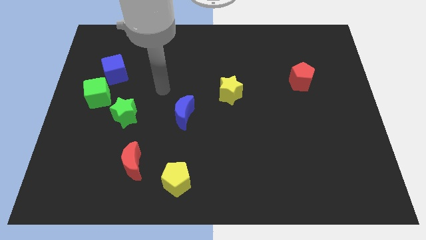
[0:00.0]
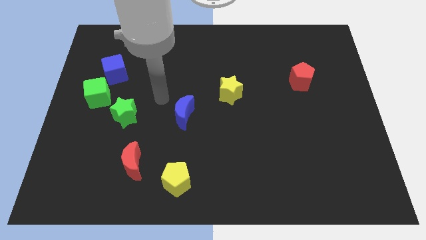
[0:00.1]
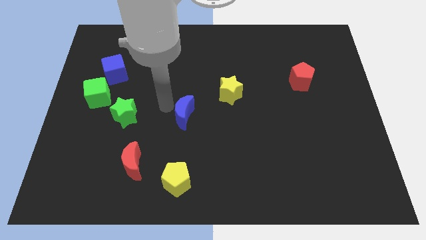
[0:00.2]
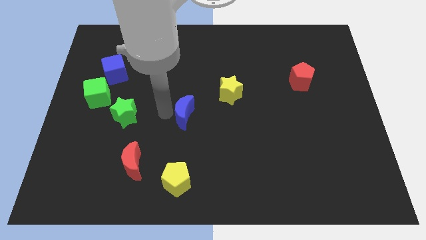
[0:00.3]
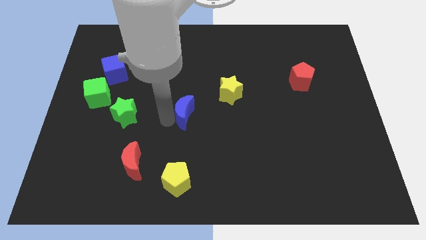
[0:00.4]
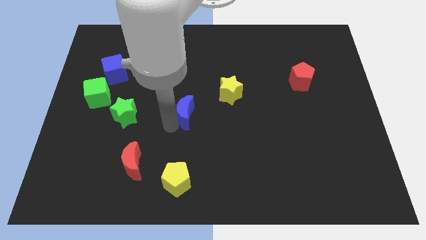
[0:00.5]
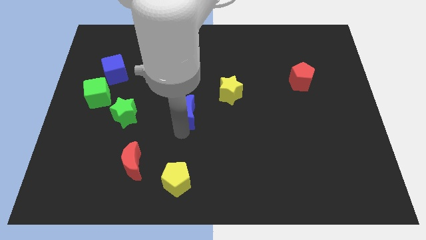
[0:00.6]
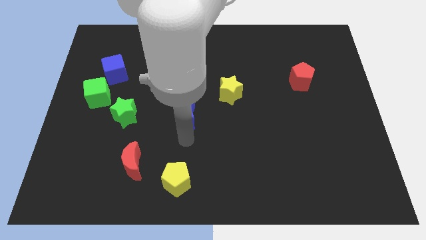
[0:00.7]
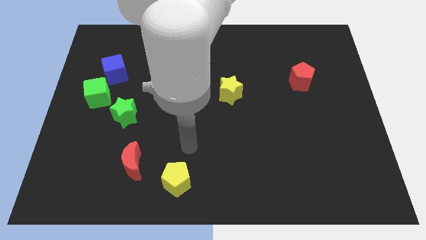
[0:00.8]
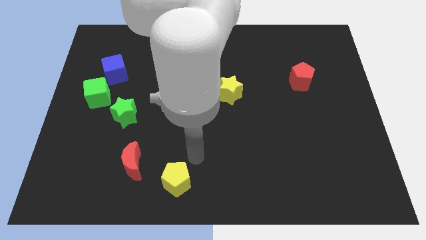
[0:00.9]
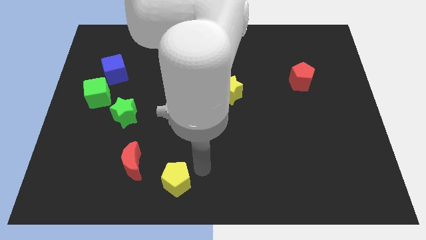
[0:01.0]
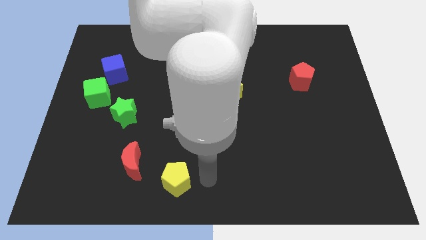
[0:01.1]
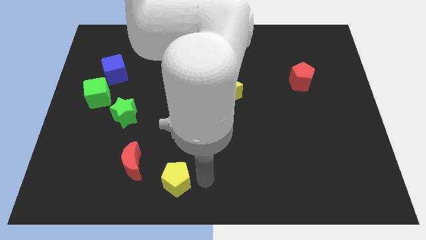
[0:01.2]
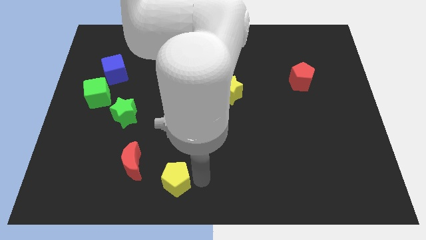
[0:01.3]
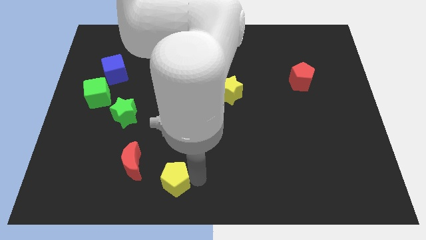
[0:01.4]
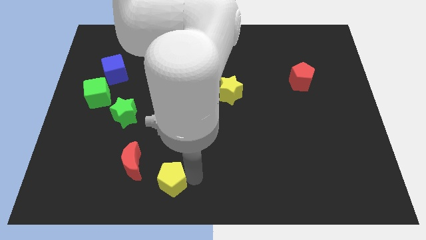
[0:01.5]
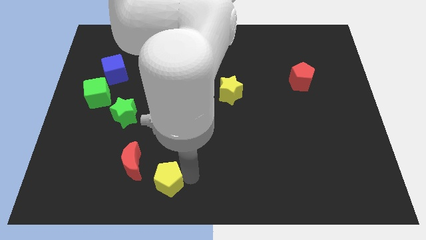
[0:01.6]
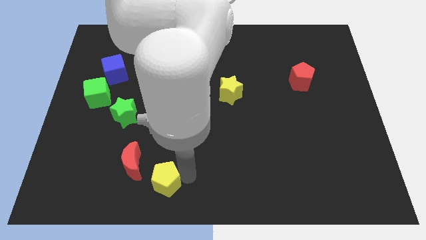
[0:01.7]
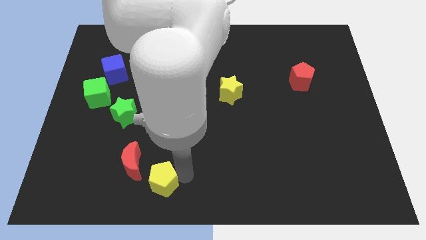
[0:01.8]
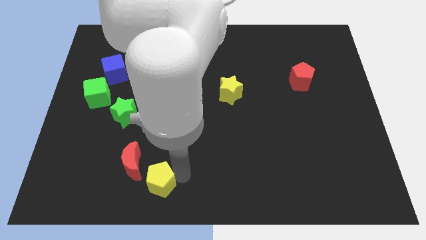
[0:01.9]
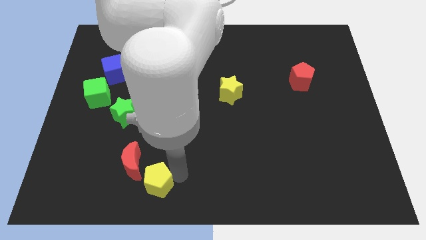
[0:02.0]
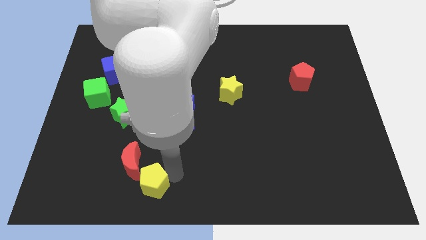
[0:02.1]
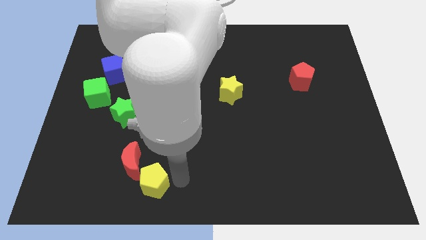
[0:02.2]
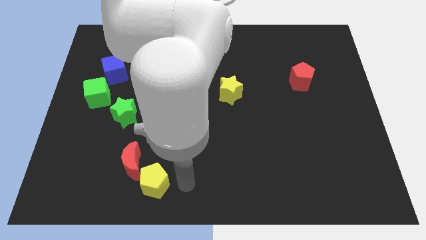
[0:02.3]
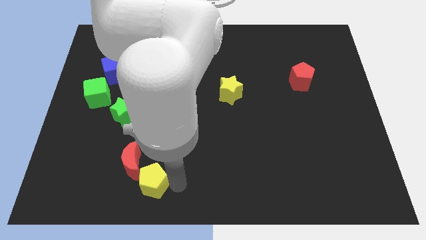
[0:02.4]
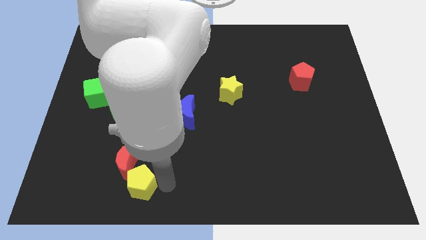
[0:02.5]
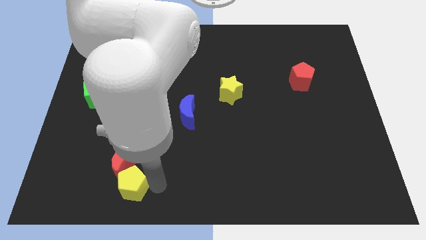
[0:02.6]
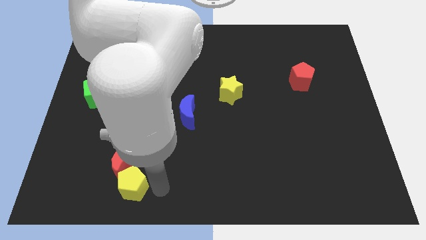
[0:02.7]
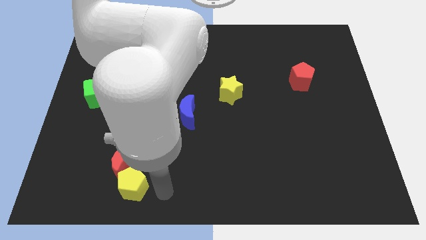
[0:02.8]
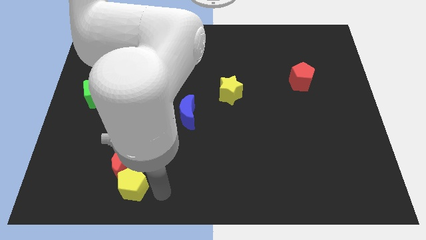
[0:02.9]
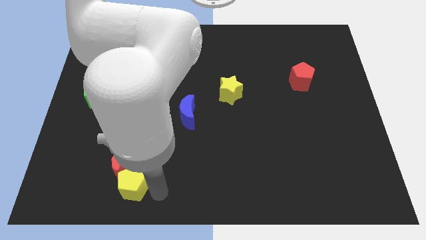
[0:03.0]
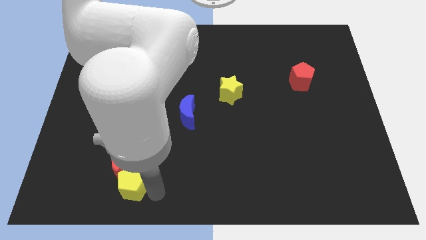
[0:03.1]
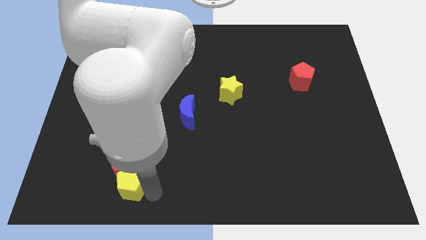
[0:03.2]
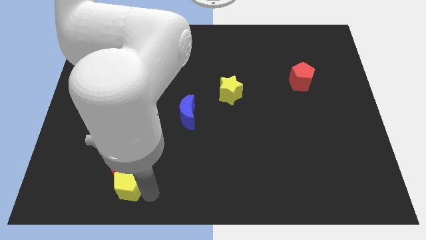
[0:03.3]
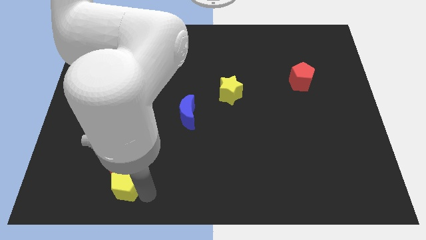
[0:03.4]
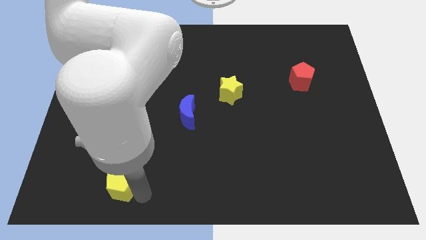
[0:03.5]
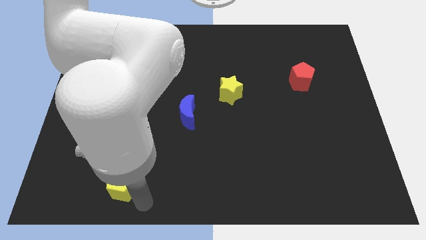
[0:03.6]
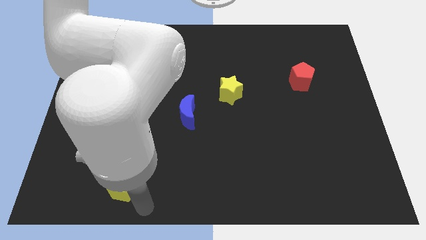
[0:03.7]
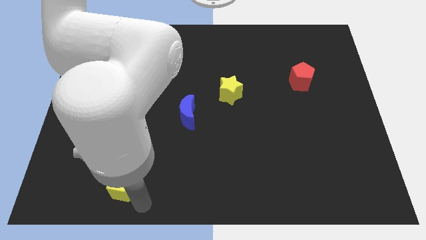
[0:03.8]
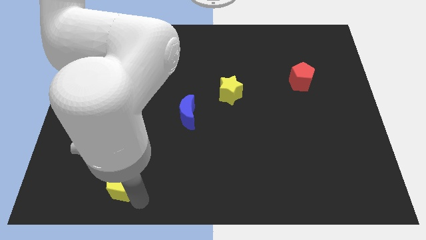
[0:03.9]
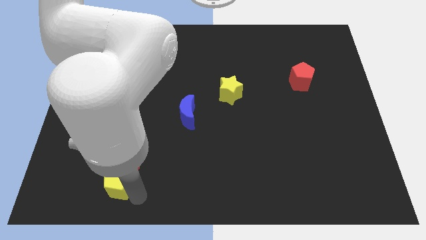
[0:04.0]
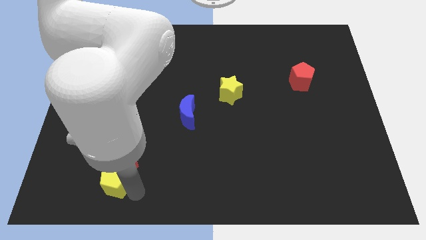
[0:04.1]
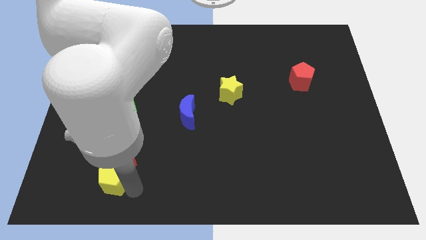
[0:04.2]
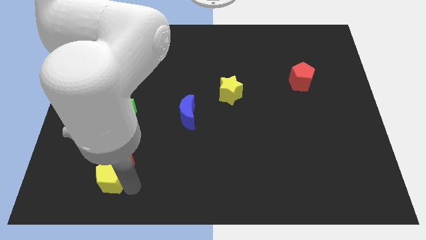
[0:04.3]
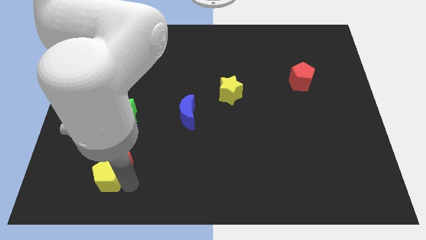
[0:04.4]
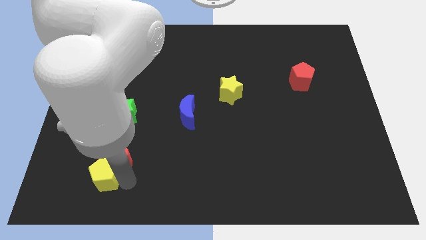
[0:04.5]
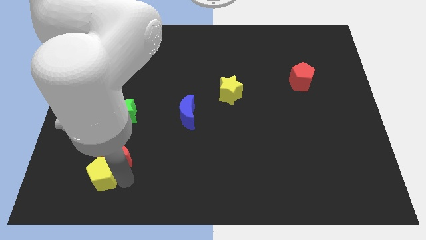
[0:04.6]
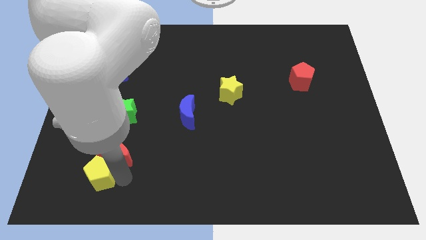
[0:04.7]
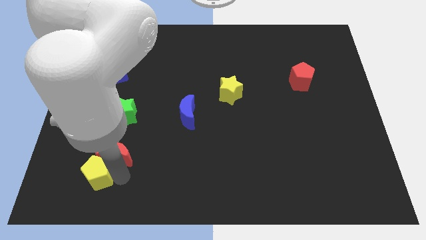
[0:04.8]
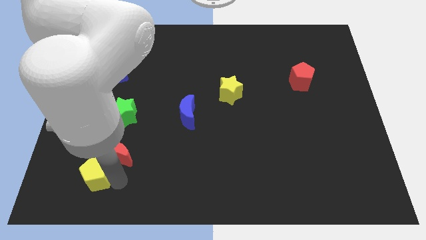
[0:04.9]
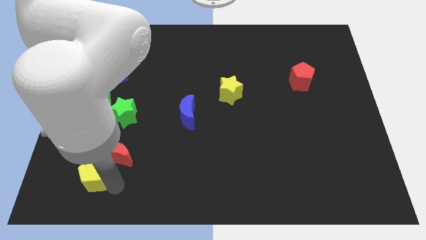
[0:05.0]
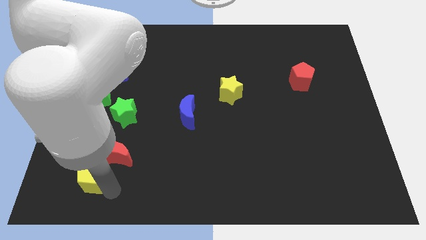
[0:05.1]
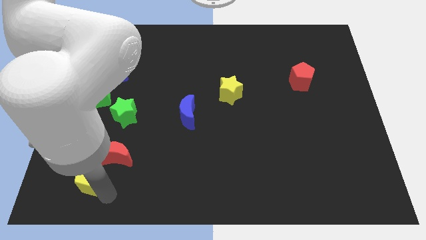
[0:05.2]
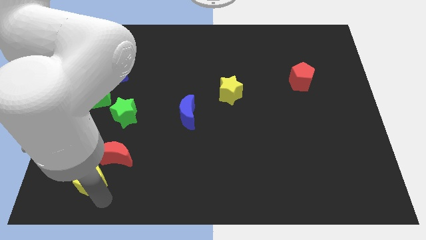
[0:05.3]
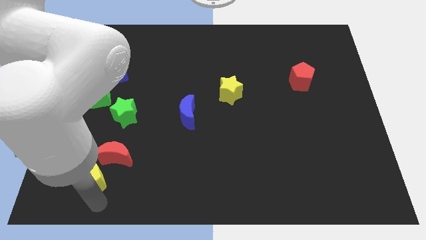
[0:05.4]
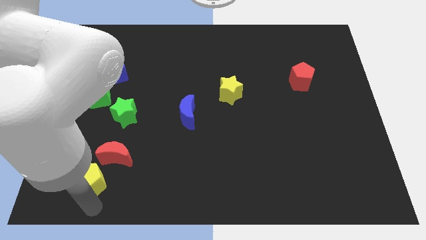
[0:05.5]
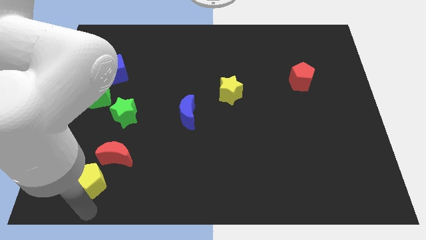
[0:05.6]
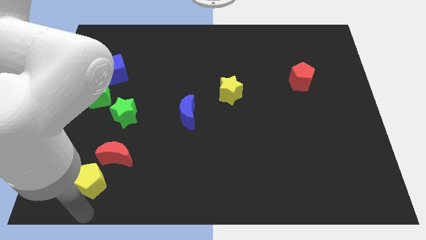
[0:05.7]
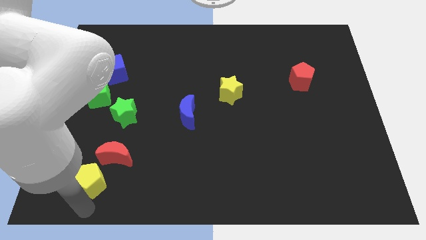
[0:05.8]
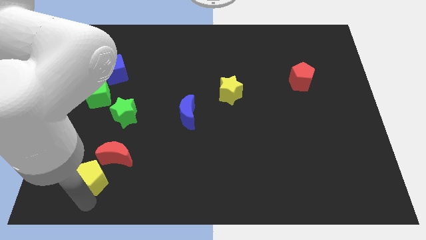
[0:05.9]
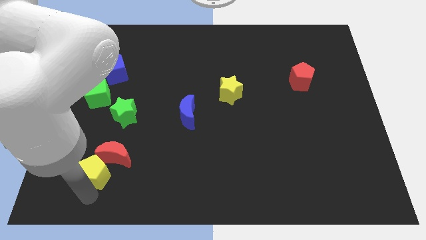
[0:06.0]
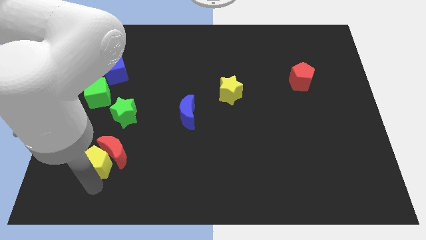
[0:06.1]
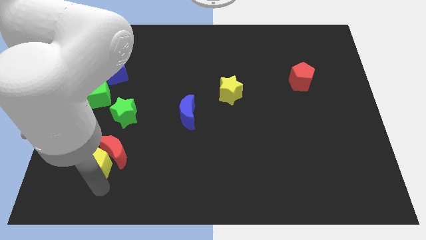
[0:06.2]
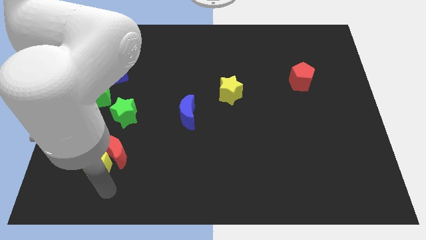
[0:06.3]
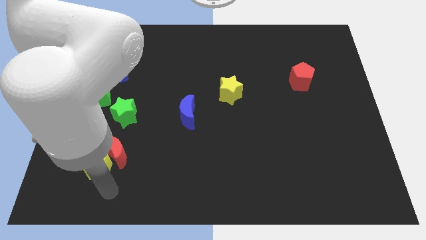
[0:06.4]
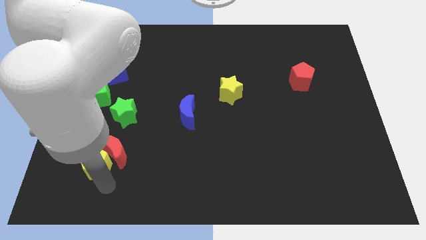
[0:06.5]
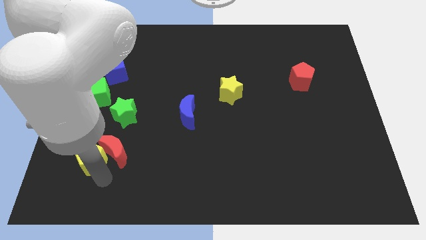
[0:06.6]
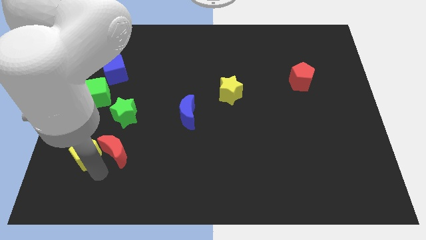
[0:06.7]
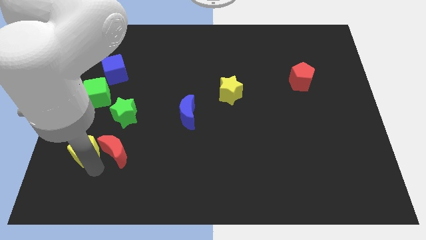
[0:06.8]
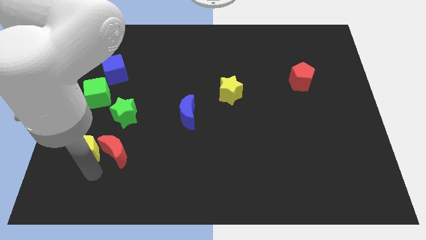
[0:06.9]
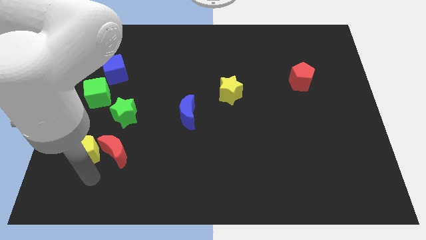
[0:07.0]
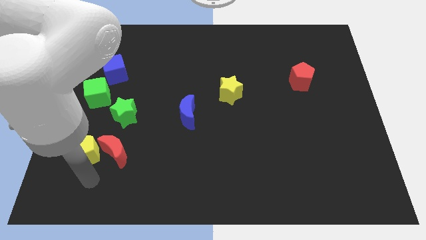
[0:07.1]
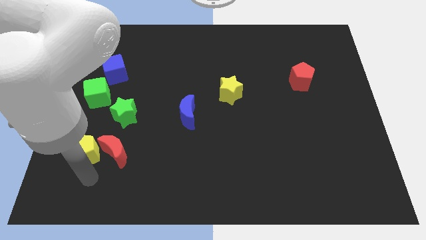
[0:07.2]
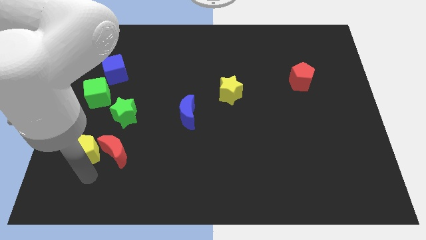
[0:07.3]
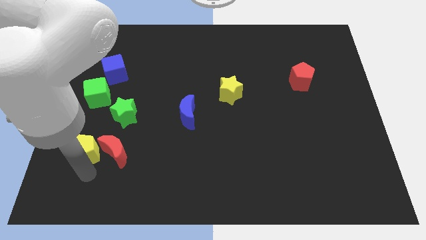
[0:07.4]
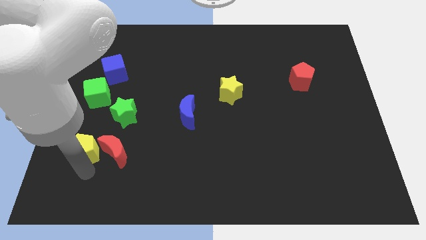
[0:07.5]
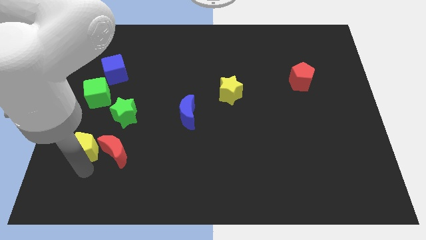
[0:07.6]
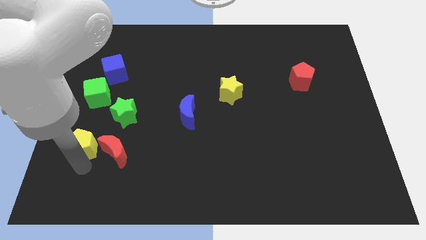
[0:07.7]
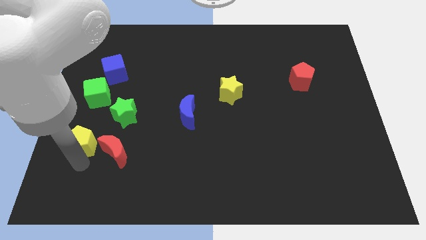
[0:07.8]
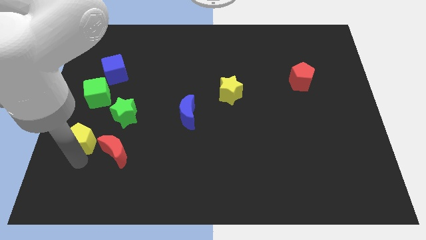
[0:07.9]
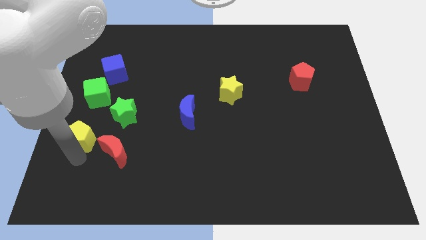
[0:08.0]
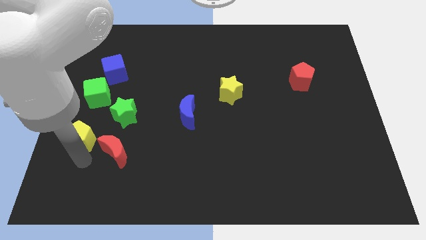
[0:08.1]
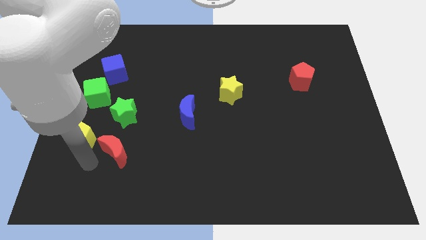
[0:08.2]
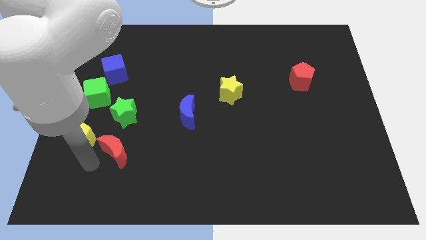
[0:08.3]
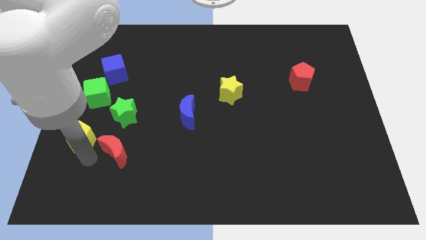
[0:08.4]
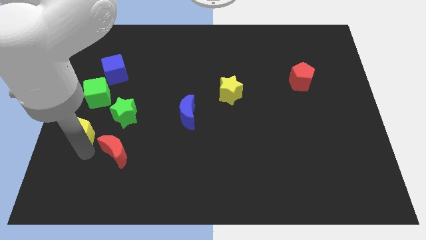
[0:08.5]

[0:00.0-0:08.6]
slide the yellow pentagon to the left side
